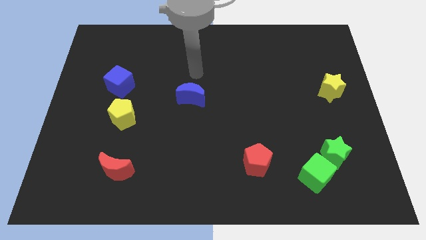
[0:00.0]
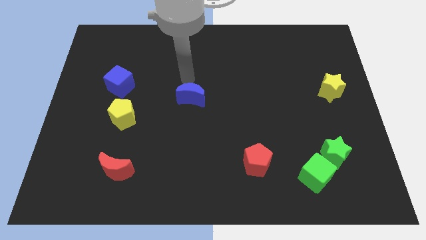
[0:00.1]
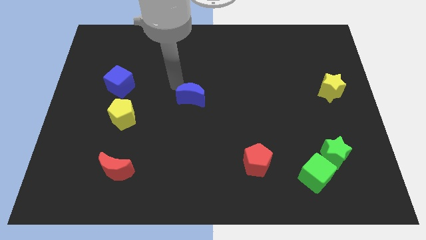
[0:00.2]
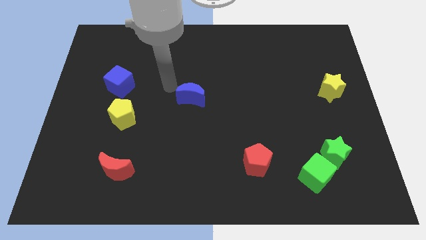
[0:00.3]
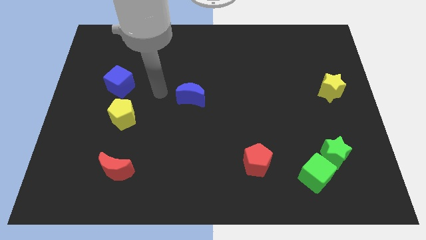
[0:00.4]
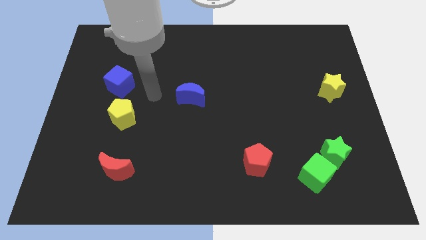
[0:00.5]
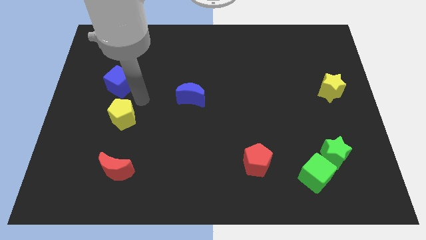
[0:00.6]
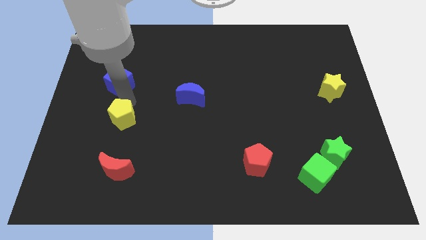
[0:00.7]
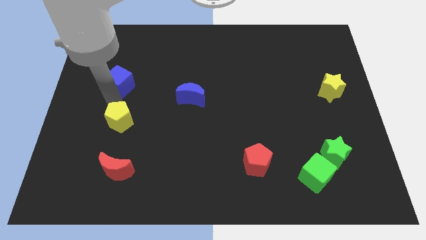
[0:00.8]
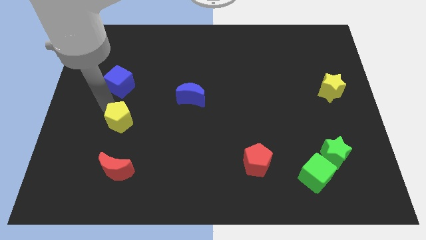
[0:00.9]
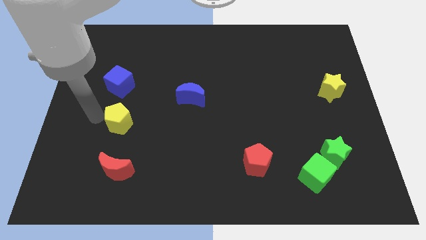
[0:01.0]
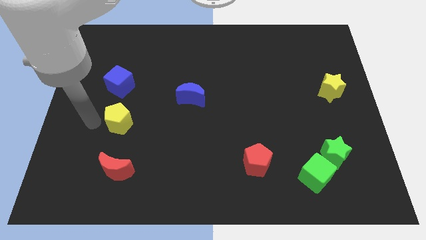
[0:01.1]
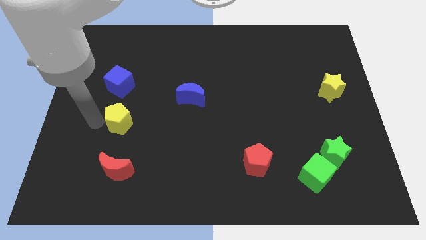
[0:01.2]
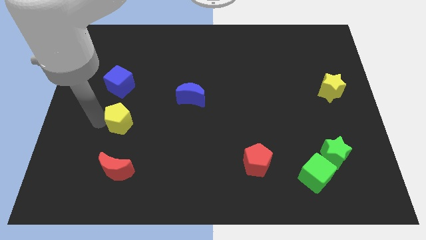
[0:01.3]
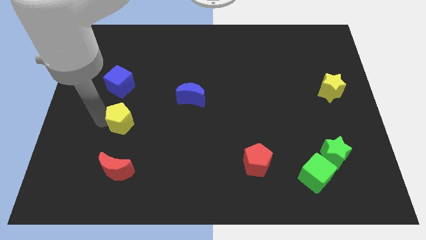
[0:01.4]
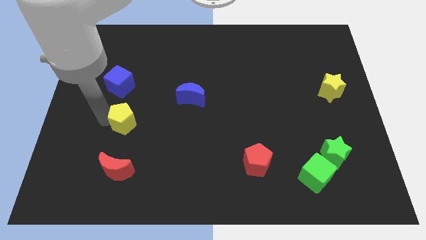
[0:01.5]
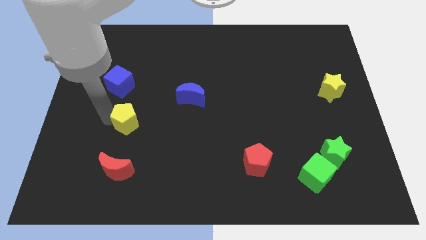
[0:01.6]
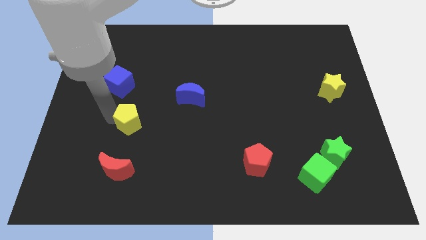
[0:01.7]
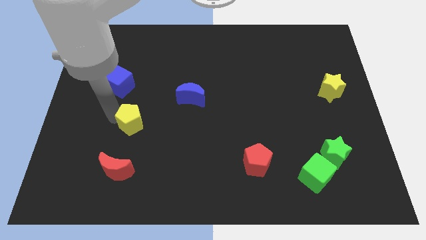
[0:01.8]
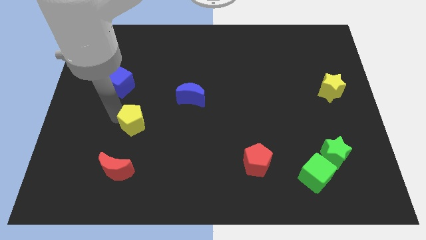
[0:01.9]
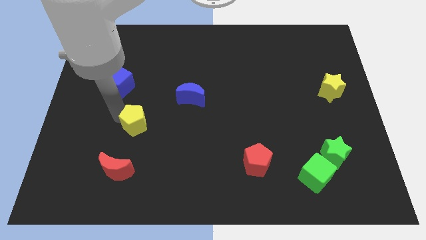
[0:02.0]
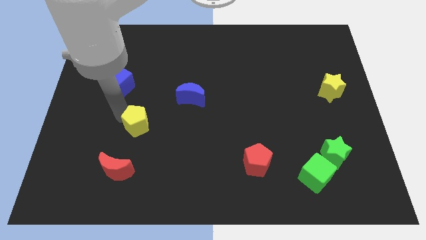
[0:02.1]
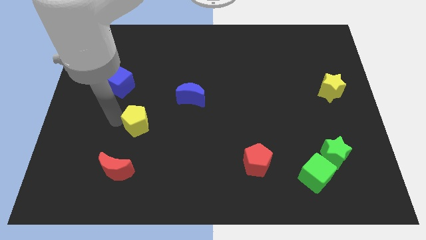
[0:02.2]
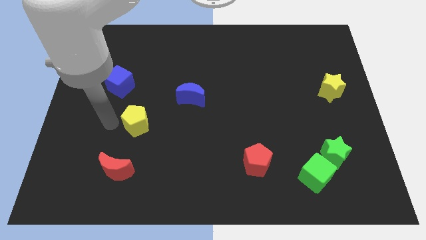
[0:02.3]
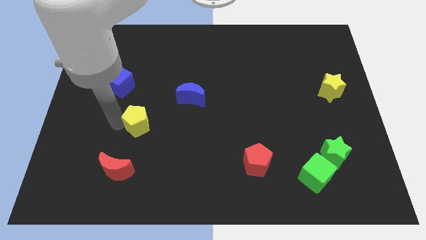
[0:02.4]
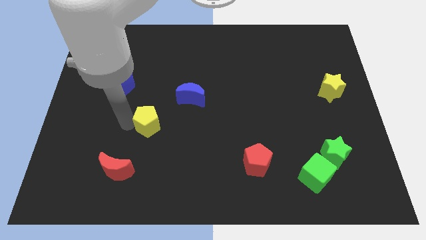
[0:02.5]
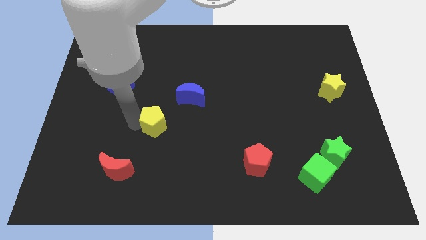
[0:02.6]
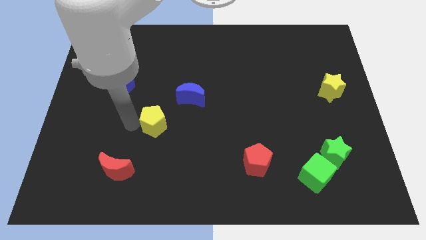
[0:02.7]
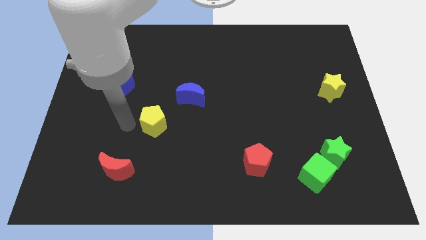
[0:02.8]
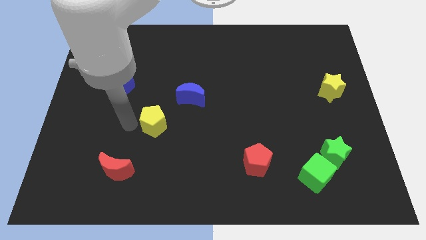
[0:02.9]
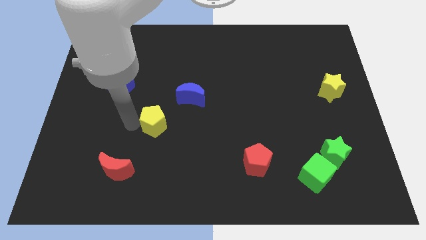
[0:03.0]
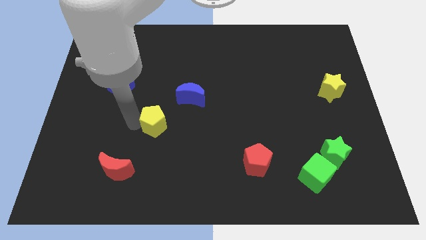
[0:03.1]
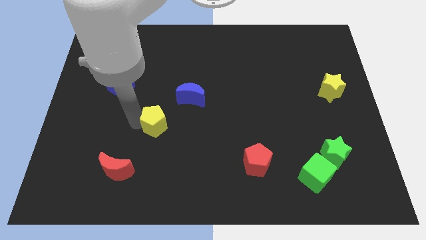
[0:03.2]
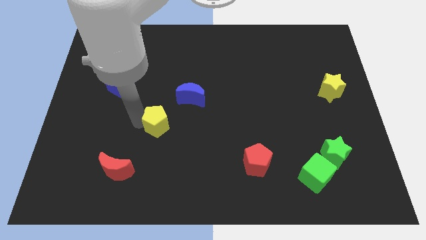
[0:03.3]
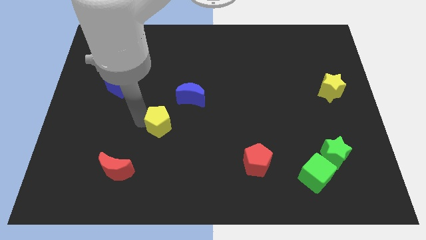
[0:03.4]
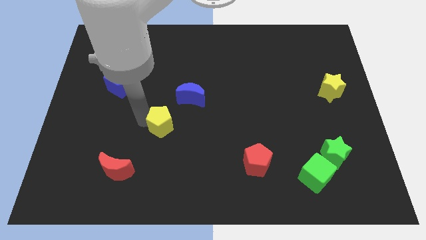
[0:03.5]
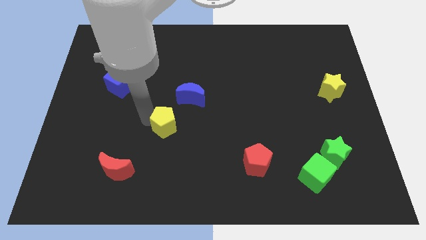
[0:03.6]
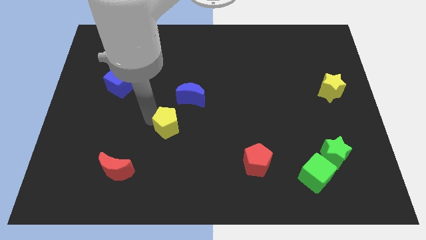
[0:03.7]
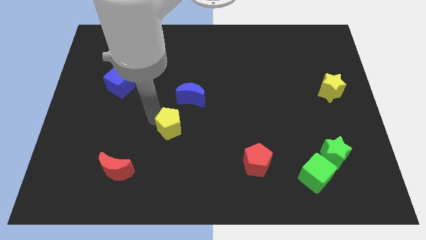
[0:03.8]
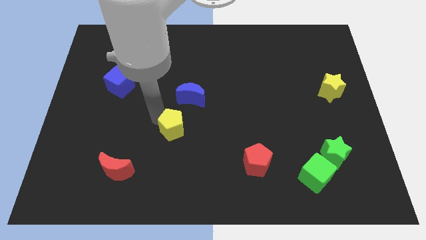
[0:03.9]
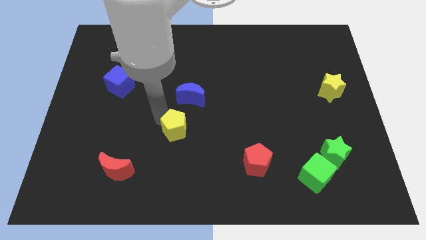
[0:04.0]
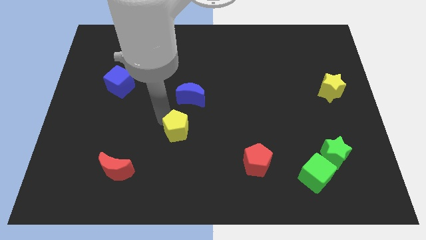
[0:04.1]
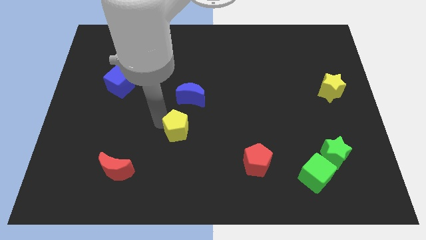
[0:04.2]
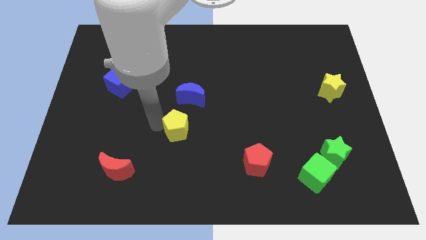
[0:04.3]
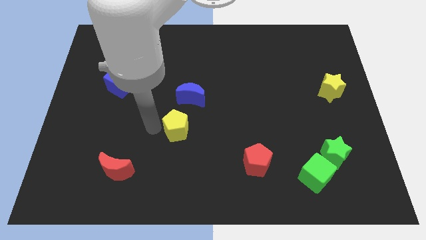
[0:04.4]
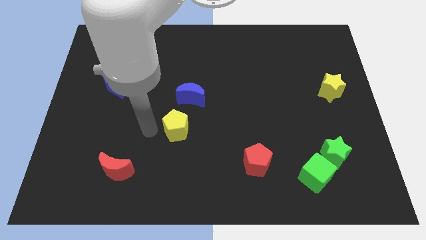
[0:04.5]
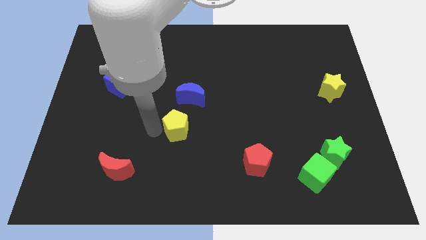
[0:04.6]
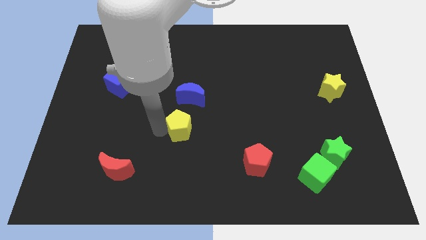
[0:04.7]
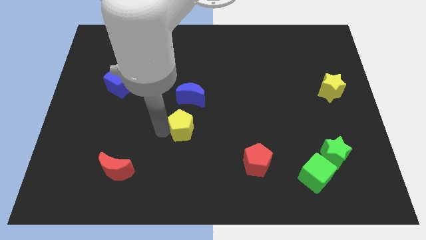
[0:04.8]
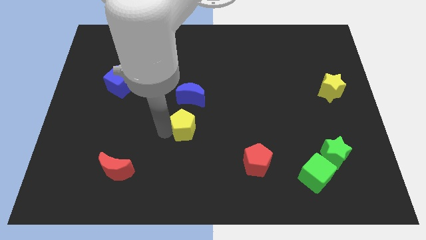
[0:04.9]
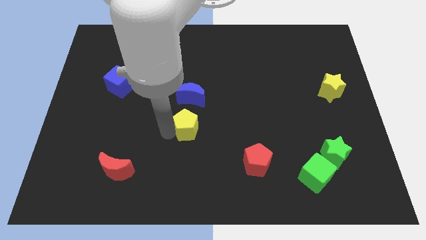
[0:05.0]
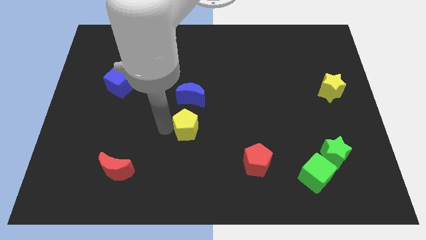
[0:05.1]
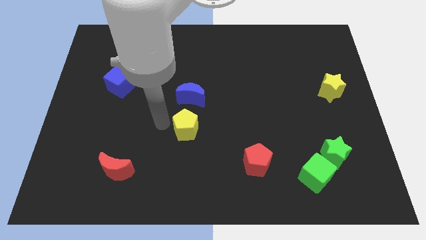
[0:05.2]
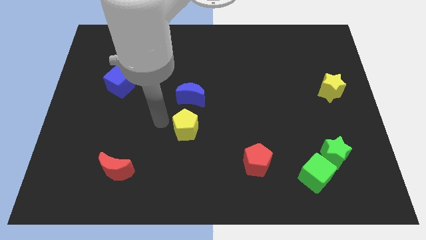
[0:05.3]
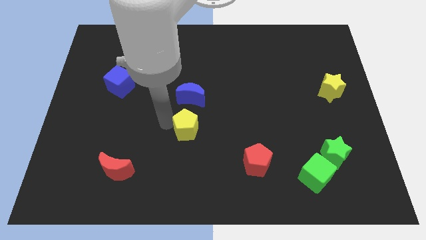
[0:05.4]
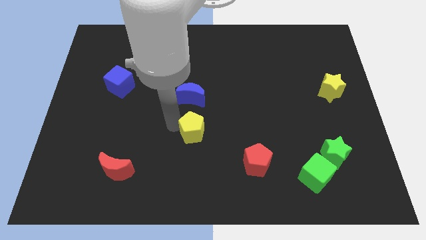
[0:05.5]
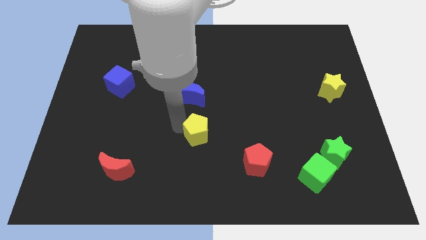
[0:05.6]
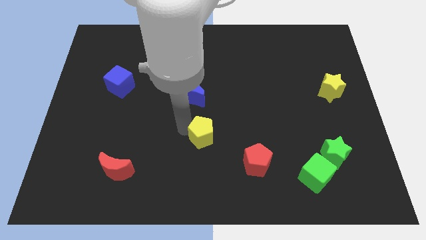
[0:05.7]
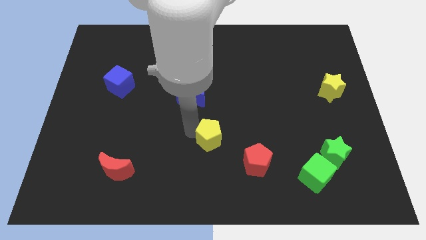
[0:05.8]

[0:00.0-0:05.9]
slide the yellow pentagon to the top left of the red pentagon

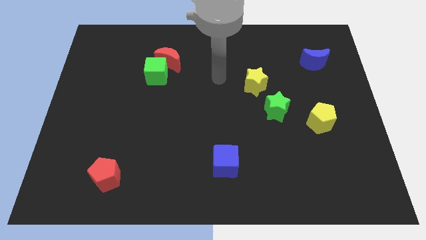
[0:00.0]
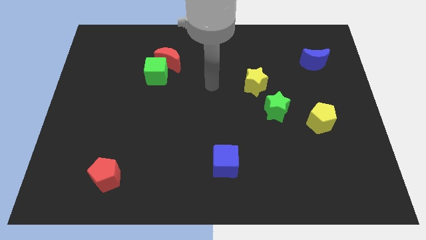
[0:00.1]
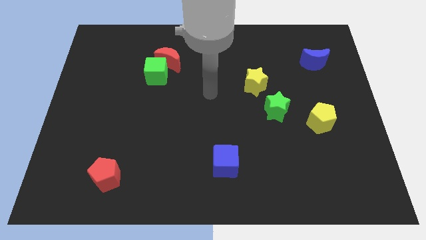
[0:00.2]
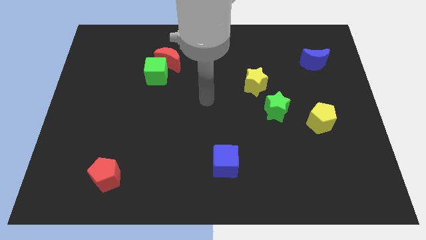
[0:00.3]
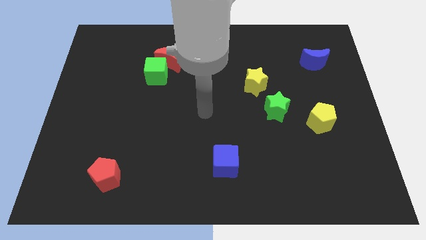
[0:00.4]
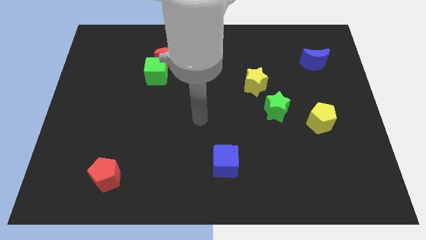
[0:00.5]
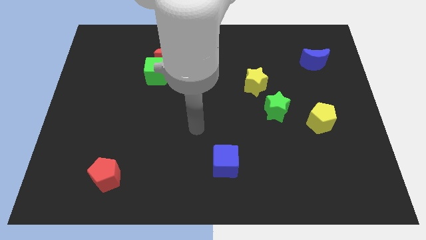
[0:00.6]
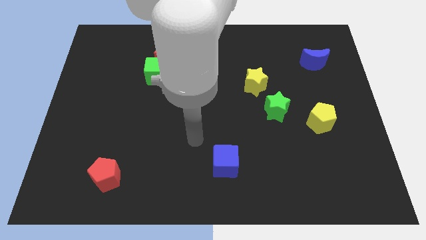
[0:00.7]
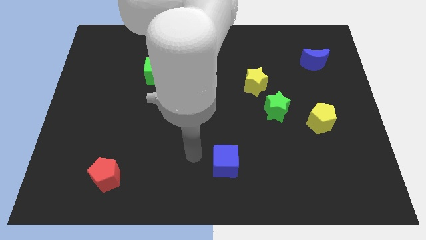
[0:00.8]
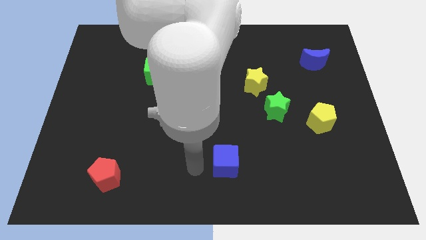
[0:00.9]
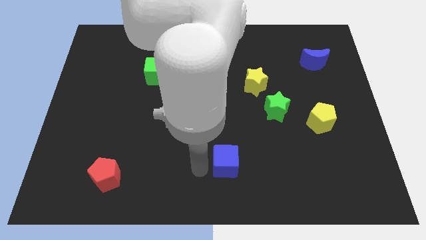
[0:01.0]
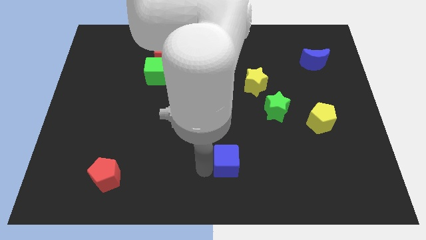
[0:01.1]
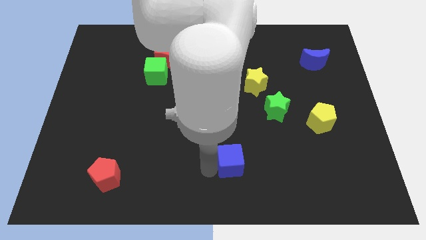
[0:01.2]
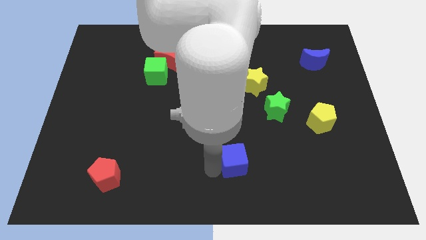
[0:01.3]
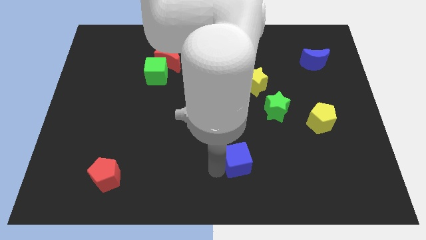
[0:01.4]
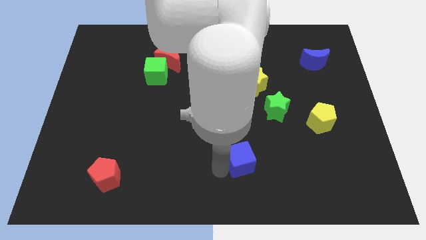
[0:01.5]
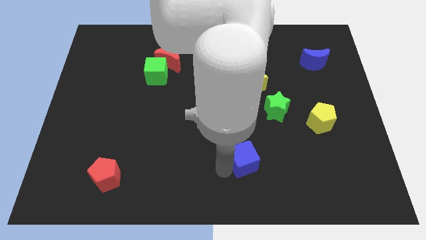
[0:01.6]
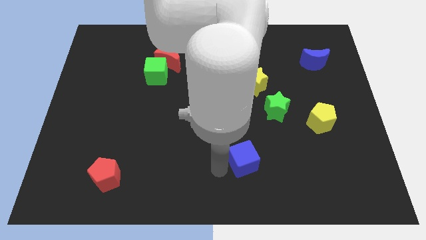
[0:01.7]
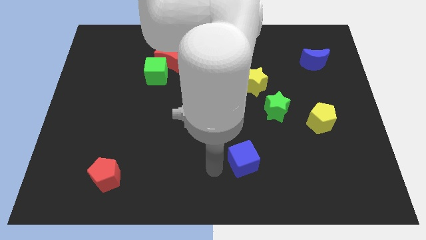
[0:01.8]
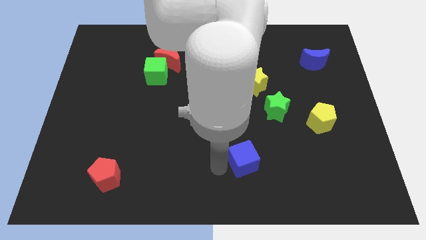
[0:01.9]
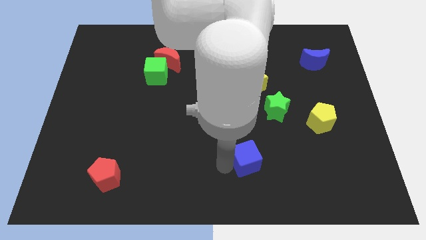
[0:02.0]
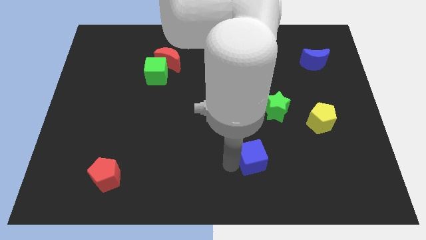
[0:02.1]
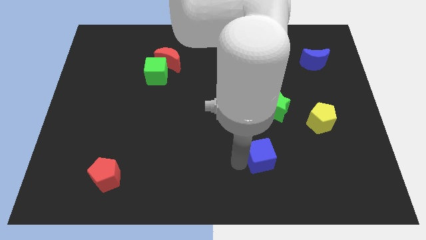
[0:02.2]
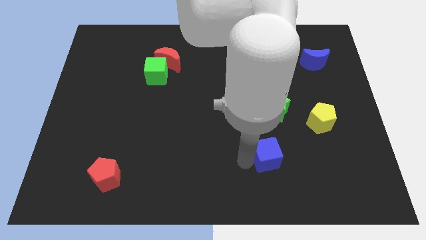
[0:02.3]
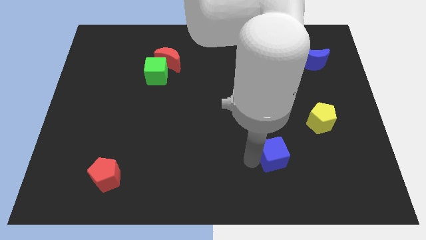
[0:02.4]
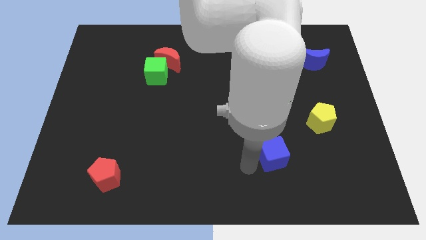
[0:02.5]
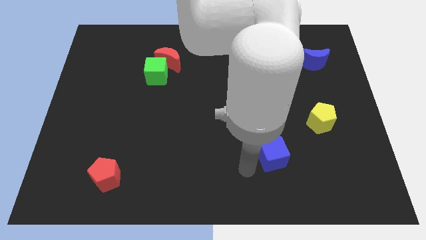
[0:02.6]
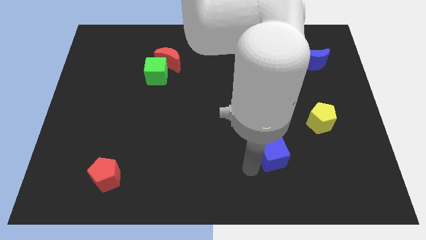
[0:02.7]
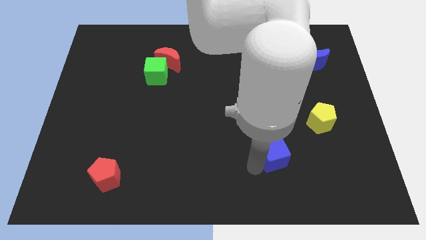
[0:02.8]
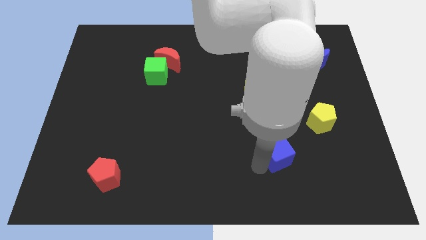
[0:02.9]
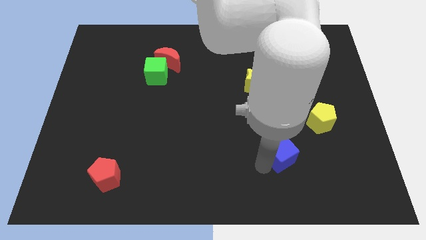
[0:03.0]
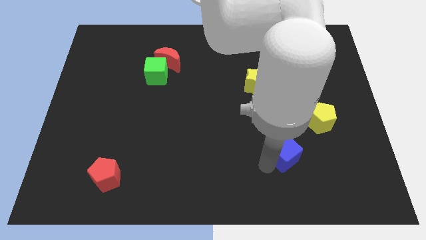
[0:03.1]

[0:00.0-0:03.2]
put the blue cube diagonally down and to the left of the yellow pentagon
